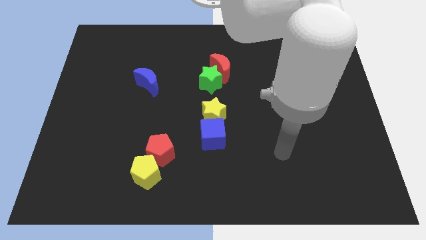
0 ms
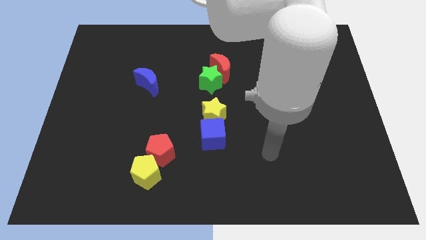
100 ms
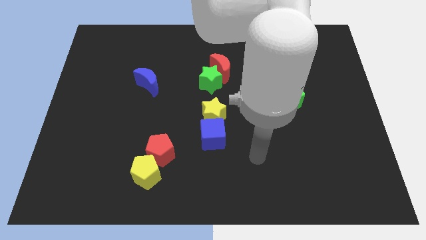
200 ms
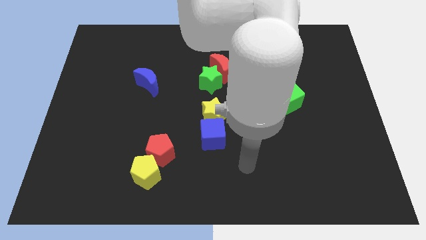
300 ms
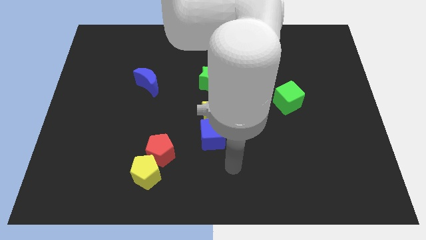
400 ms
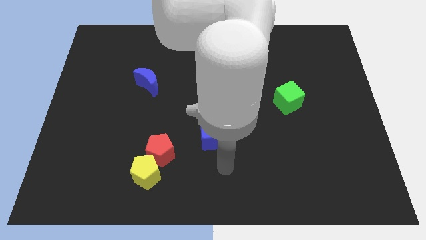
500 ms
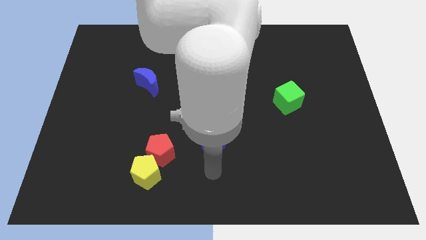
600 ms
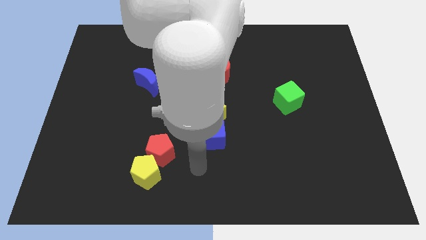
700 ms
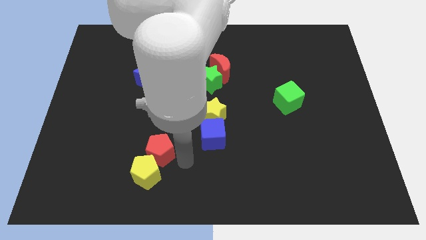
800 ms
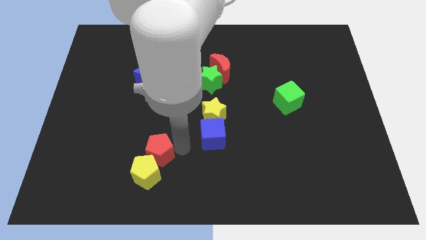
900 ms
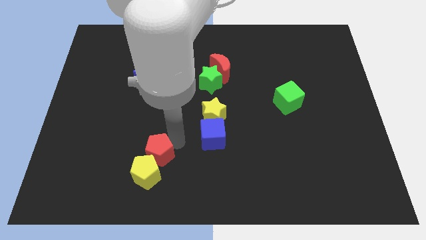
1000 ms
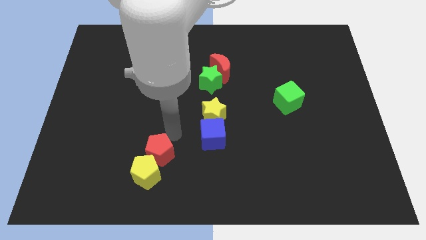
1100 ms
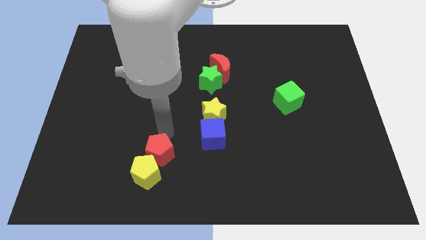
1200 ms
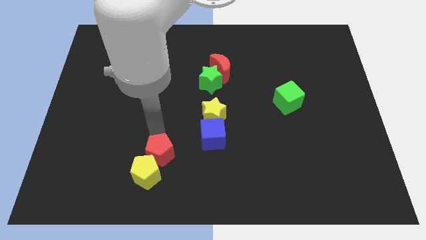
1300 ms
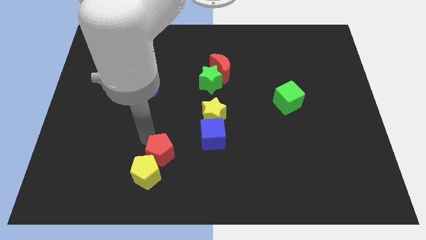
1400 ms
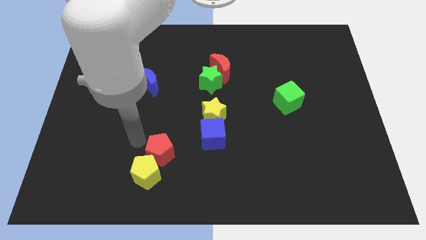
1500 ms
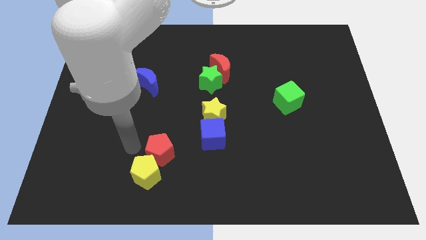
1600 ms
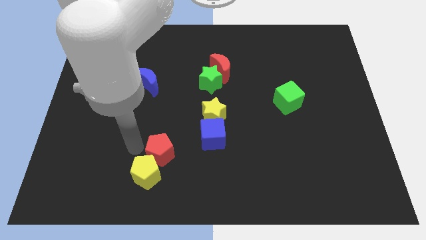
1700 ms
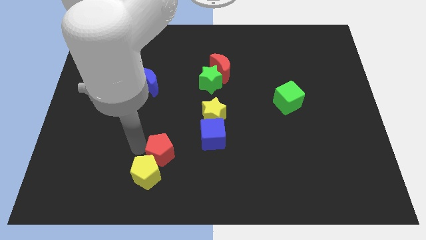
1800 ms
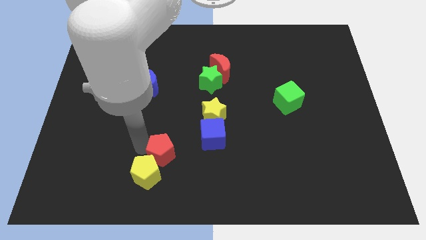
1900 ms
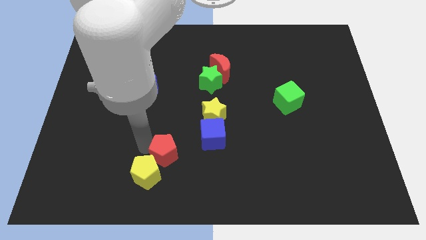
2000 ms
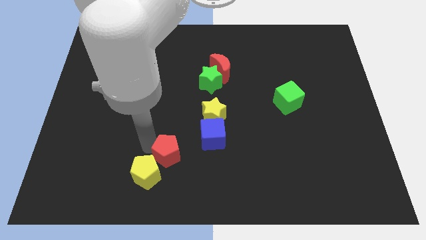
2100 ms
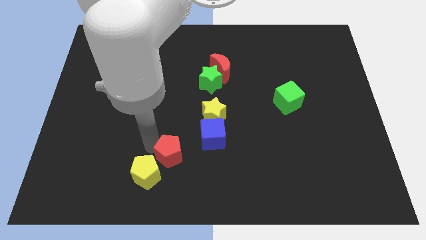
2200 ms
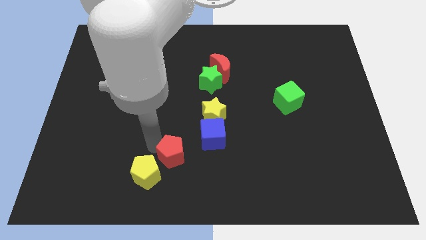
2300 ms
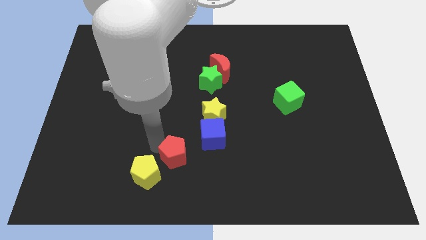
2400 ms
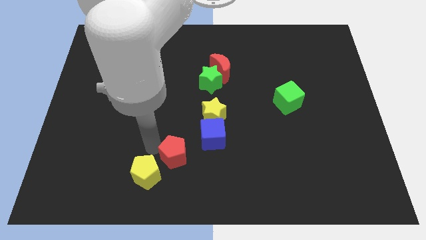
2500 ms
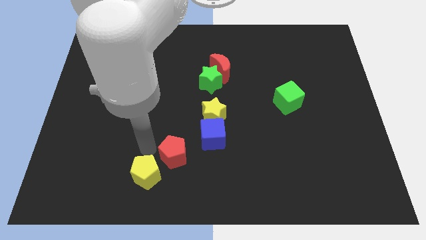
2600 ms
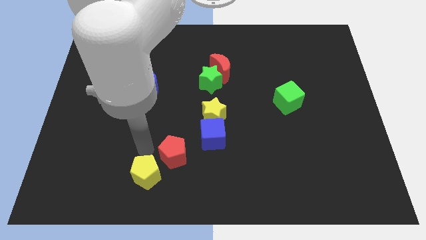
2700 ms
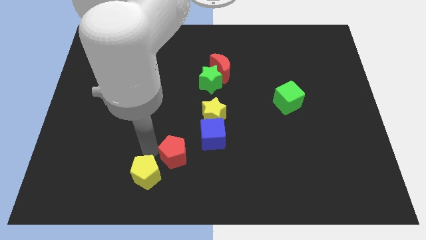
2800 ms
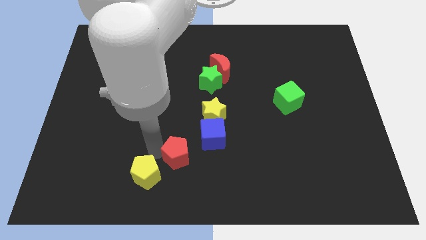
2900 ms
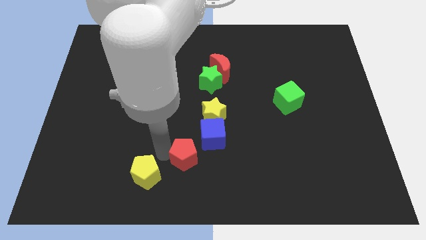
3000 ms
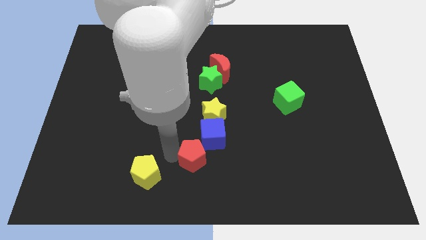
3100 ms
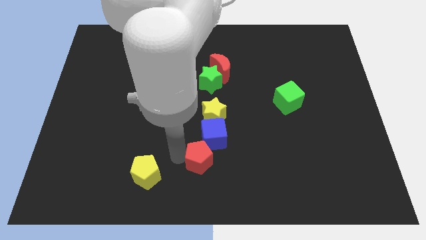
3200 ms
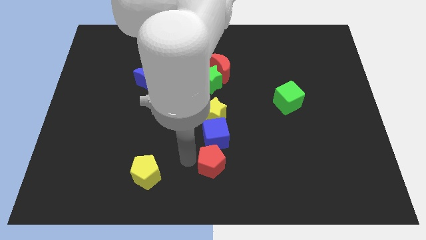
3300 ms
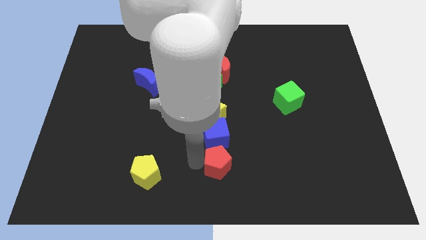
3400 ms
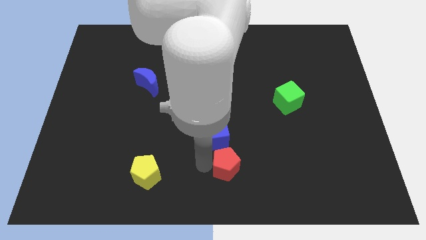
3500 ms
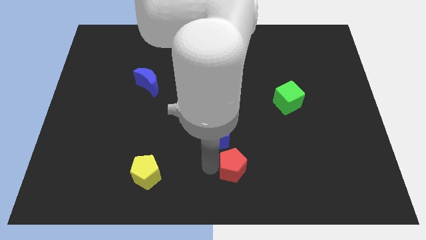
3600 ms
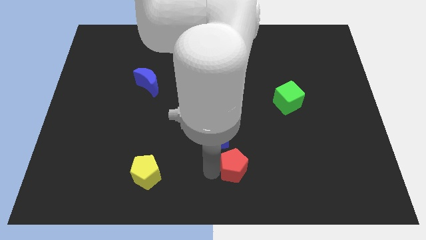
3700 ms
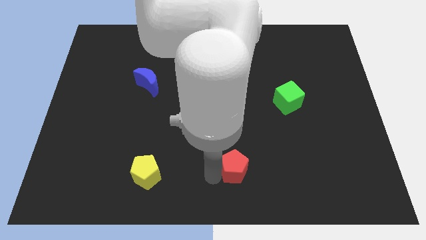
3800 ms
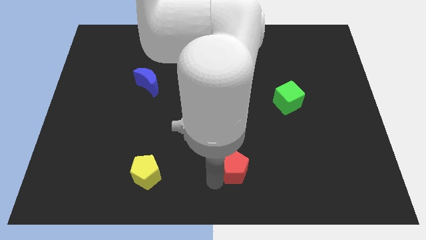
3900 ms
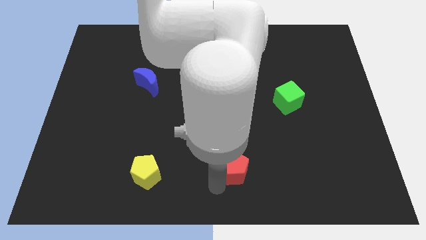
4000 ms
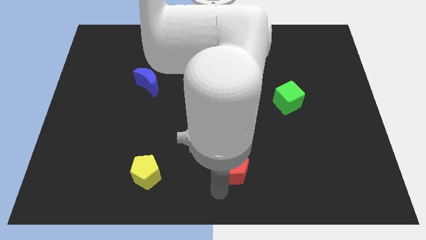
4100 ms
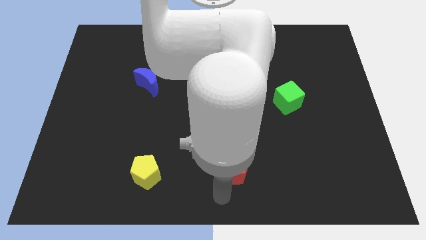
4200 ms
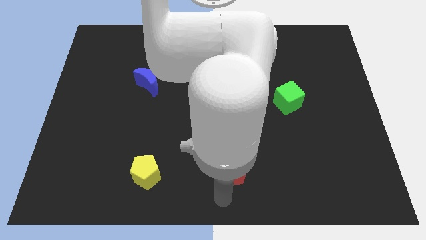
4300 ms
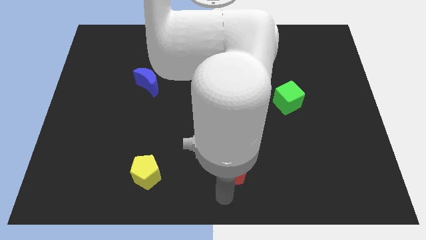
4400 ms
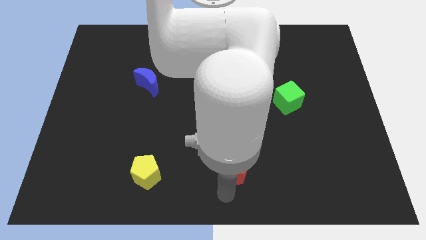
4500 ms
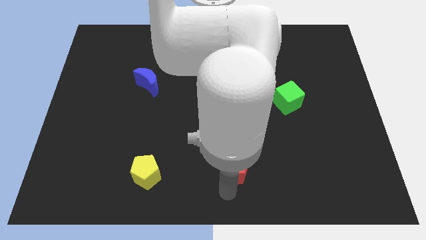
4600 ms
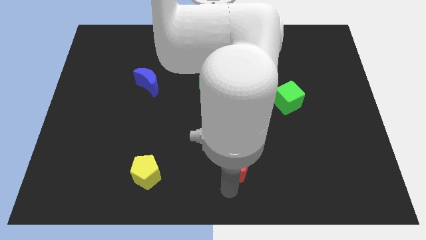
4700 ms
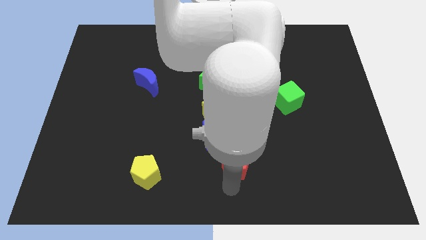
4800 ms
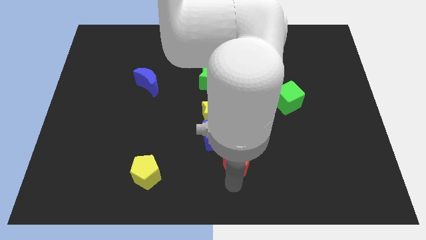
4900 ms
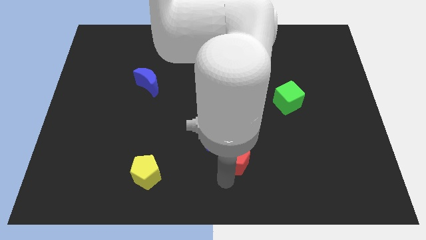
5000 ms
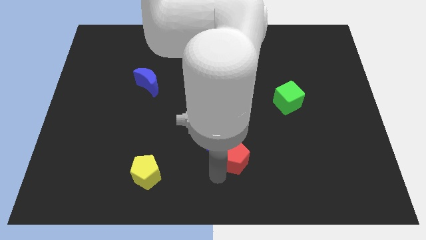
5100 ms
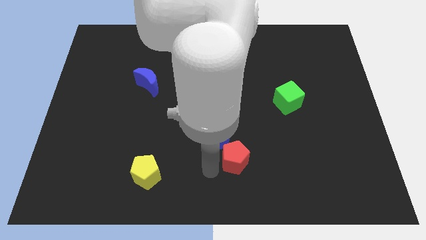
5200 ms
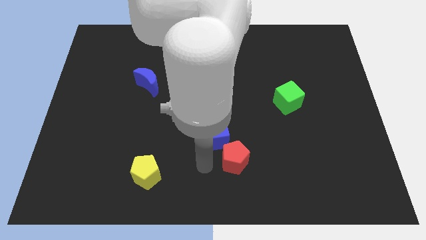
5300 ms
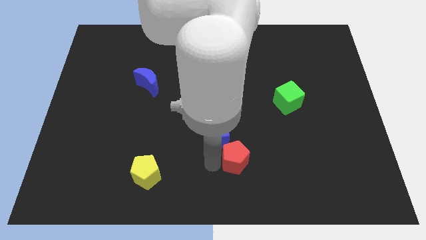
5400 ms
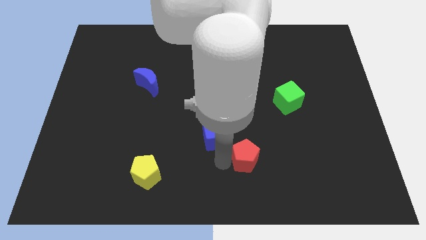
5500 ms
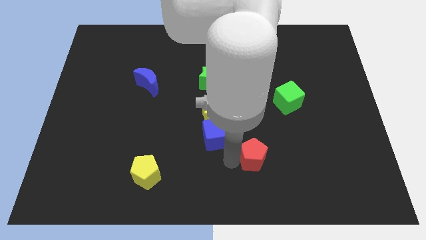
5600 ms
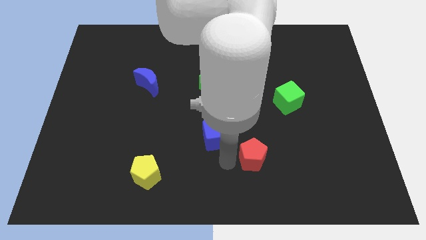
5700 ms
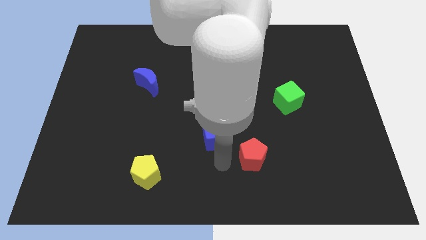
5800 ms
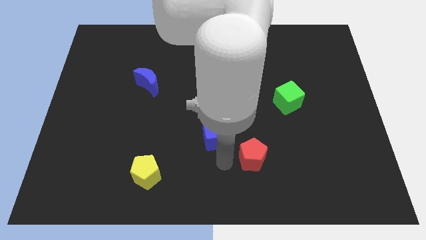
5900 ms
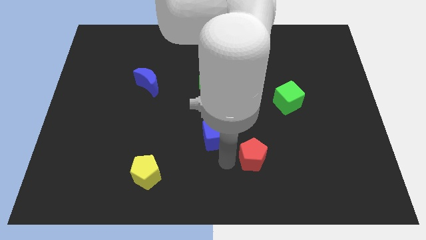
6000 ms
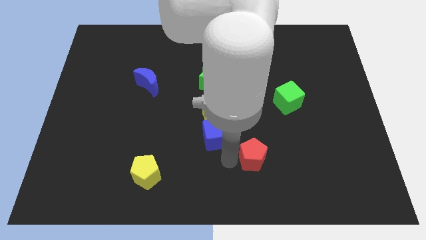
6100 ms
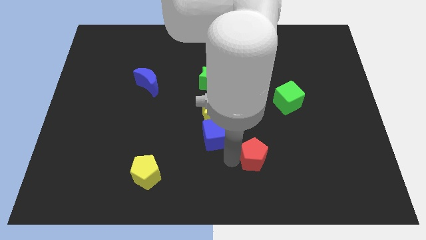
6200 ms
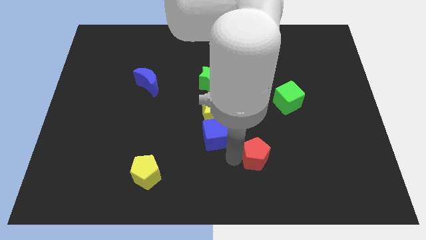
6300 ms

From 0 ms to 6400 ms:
push the red pentagon to the right

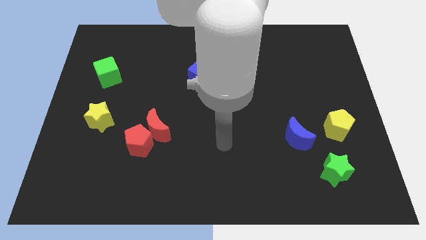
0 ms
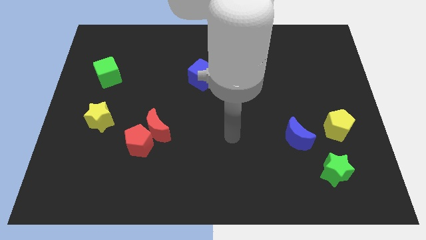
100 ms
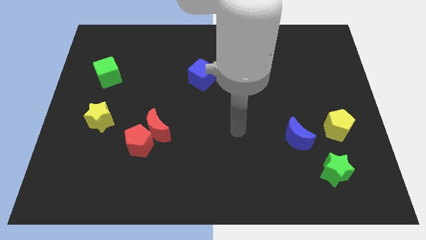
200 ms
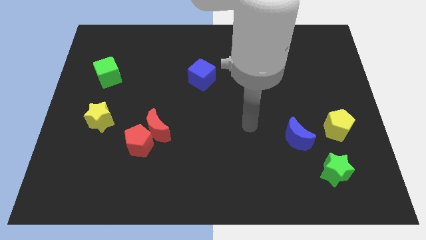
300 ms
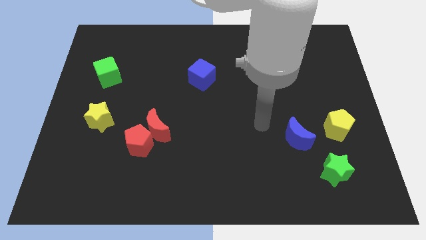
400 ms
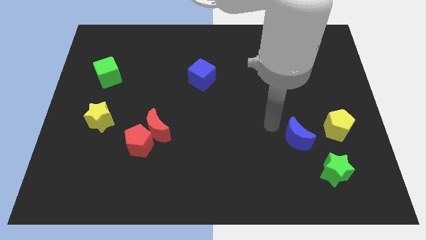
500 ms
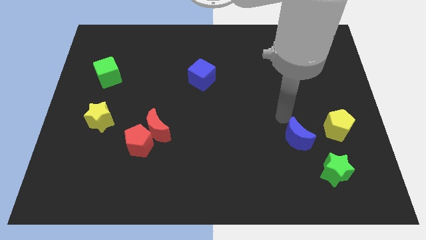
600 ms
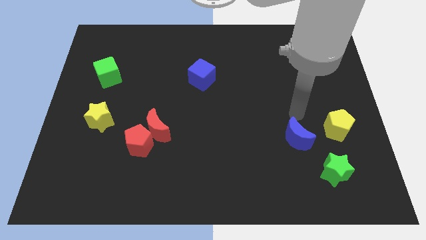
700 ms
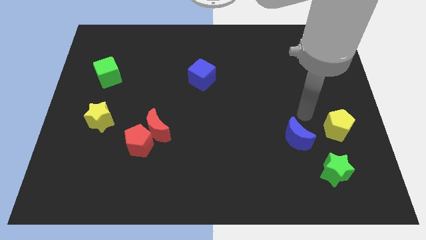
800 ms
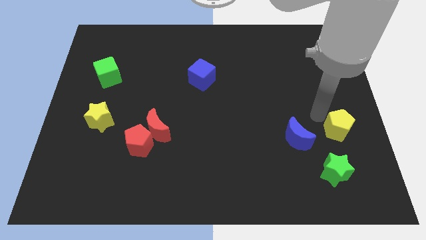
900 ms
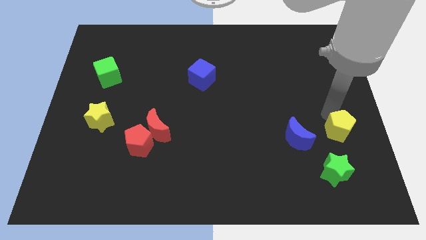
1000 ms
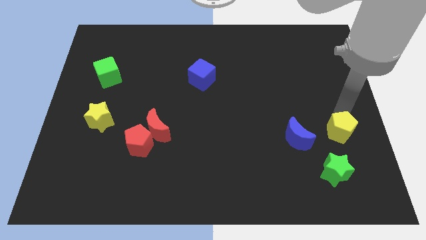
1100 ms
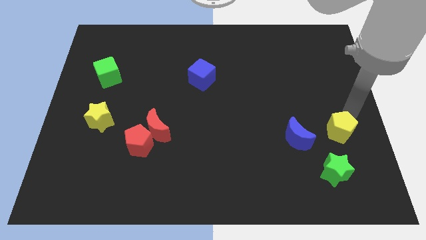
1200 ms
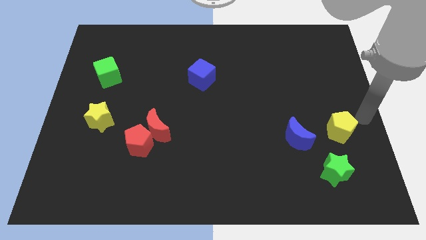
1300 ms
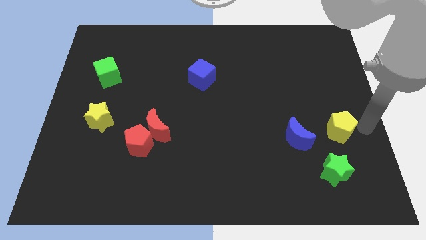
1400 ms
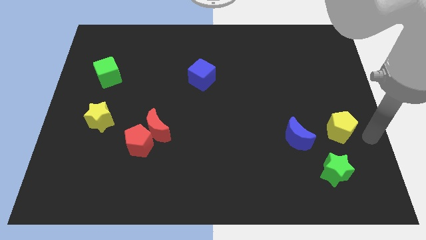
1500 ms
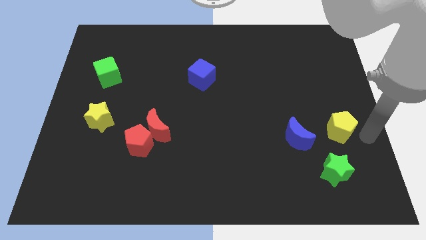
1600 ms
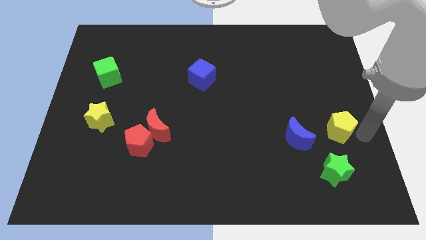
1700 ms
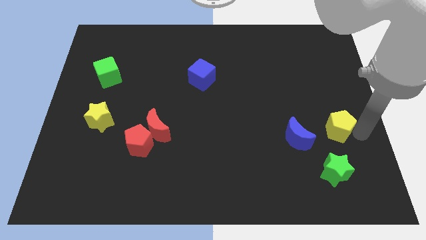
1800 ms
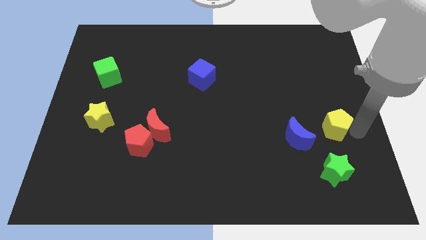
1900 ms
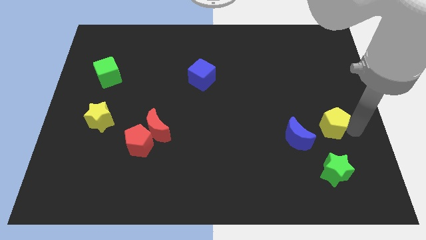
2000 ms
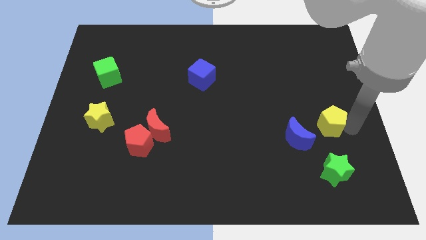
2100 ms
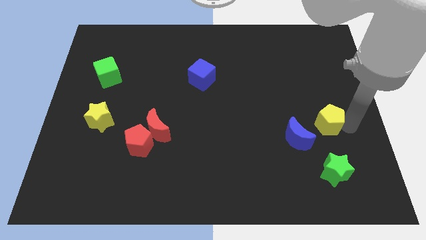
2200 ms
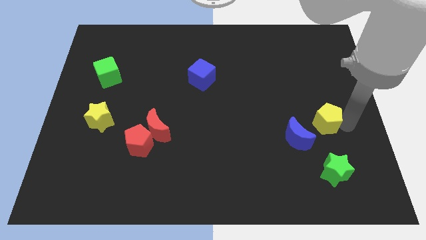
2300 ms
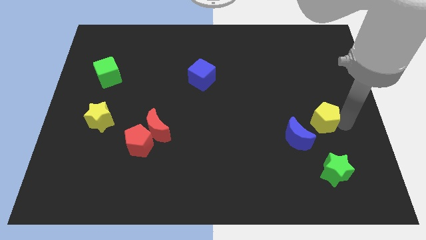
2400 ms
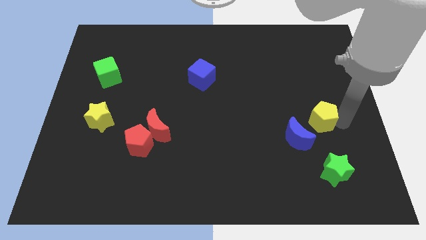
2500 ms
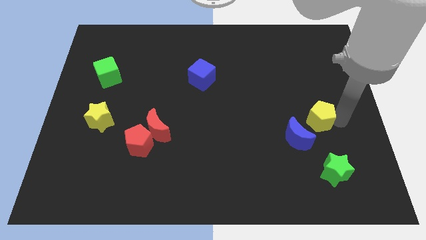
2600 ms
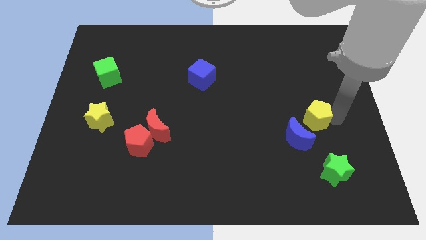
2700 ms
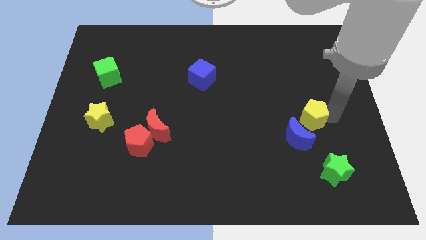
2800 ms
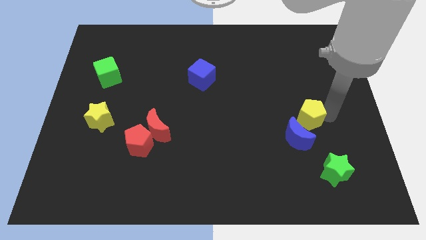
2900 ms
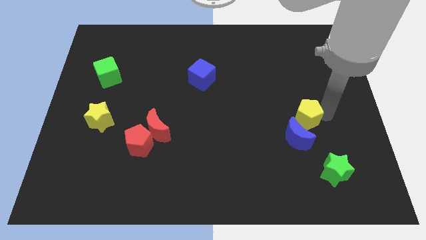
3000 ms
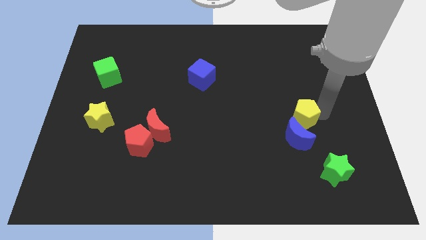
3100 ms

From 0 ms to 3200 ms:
slide the yellow pentagon left a bit
